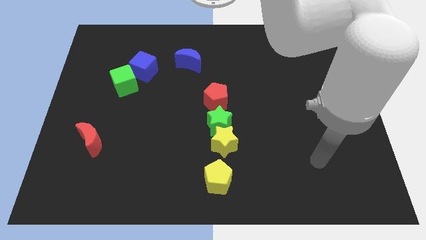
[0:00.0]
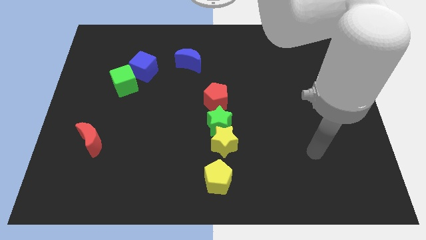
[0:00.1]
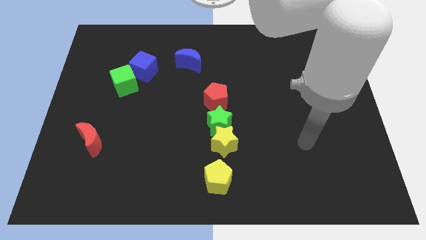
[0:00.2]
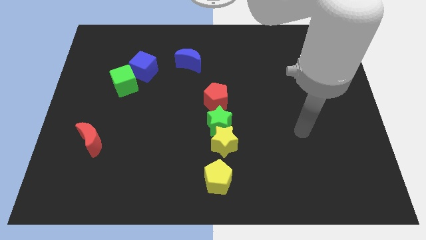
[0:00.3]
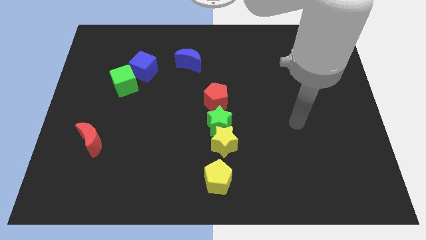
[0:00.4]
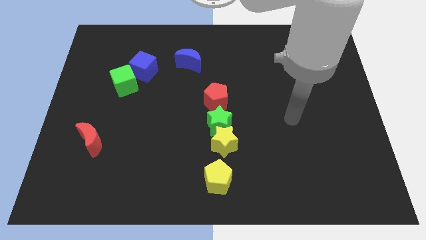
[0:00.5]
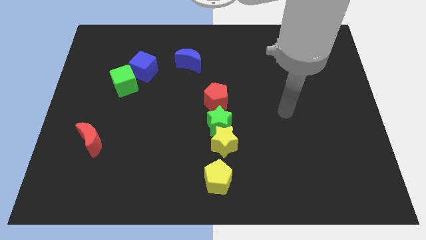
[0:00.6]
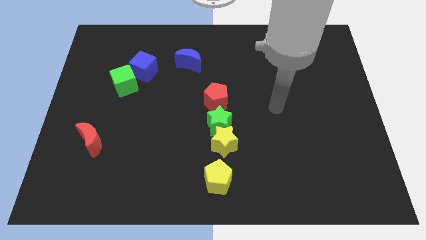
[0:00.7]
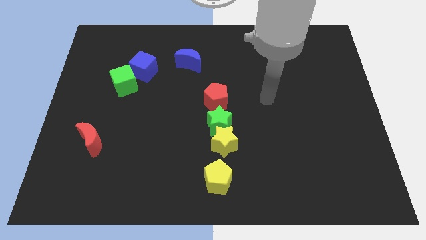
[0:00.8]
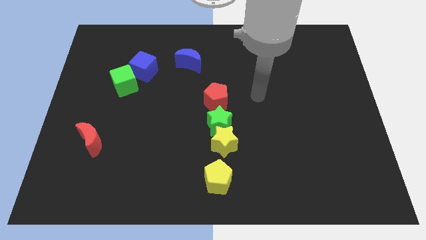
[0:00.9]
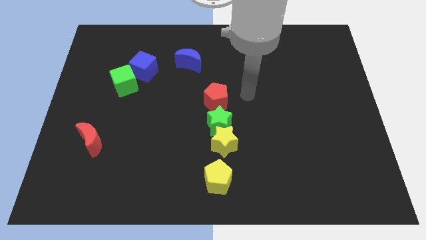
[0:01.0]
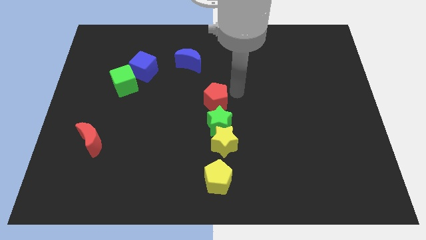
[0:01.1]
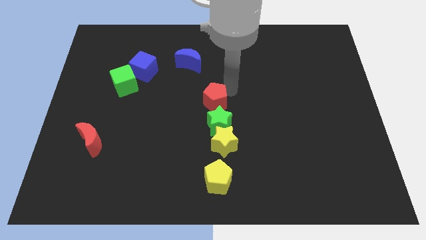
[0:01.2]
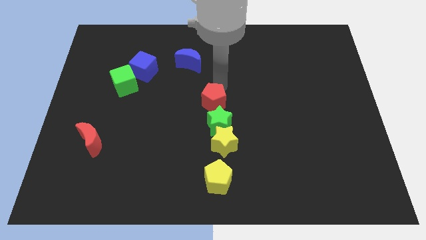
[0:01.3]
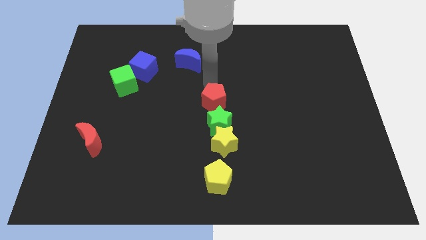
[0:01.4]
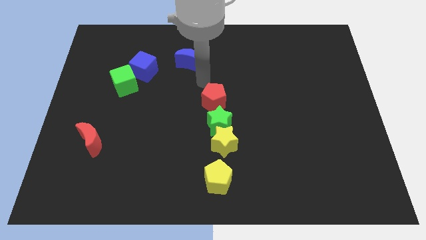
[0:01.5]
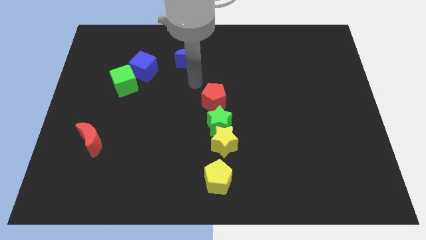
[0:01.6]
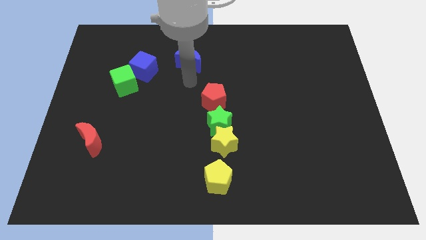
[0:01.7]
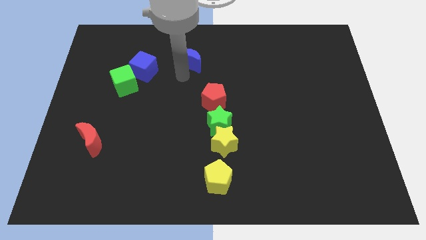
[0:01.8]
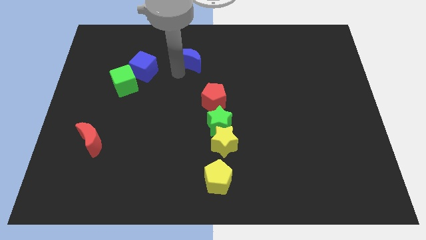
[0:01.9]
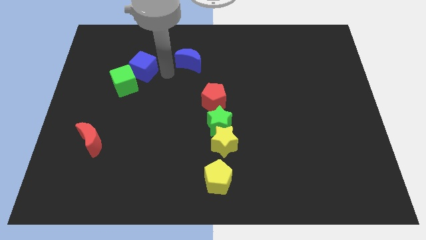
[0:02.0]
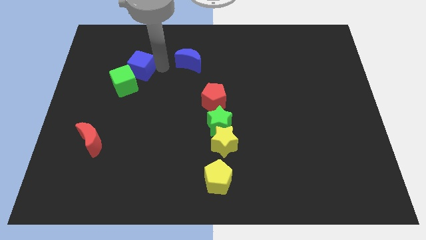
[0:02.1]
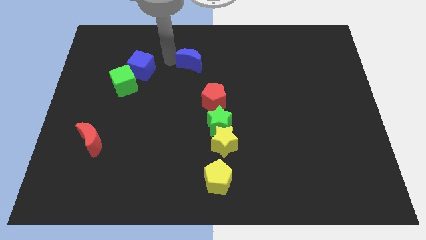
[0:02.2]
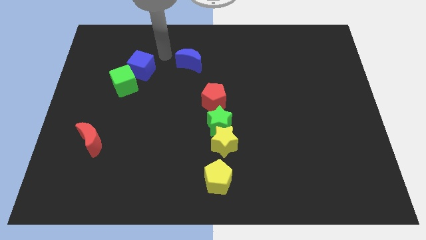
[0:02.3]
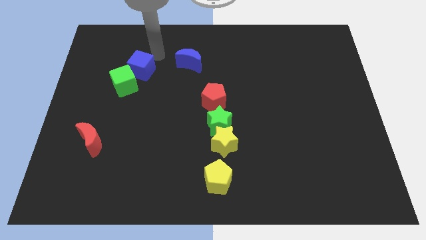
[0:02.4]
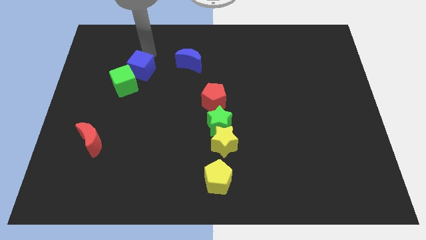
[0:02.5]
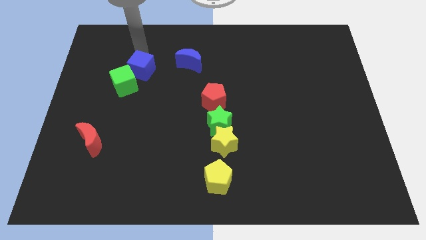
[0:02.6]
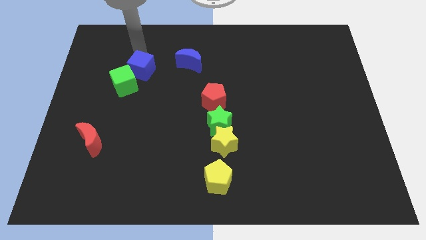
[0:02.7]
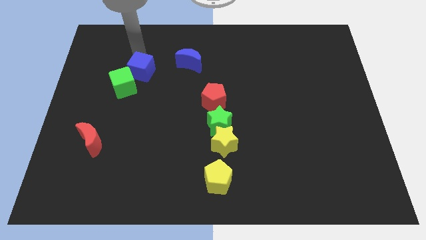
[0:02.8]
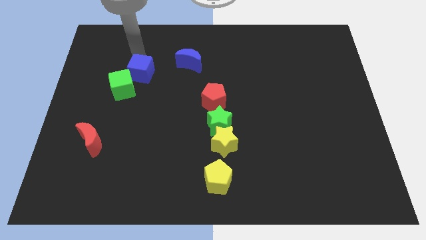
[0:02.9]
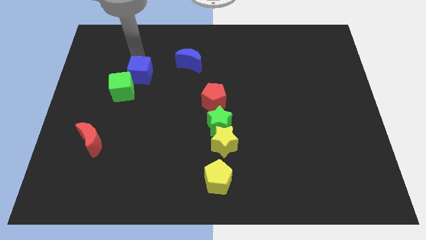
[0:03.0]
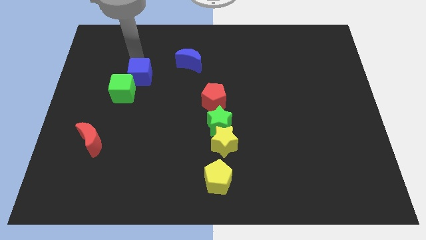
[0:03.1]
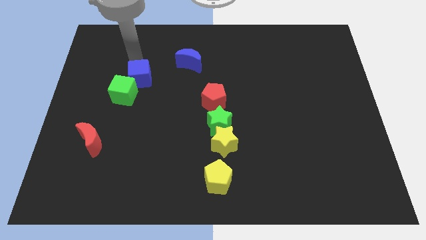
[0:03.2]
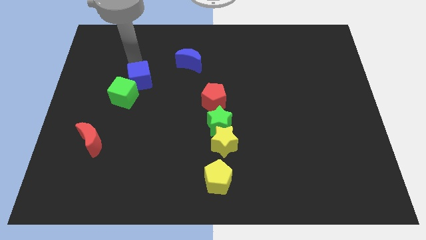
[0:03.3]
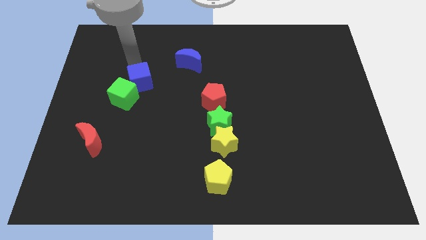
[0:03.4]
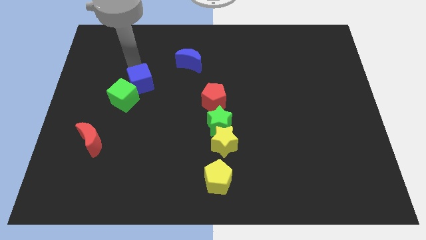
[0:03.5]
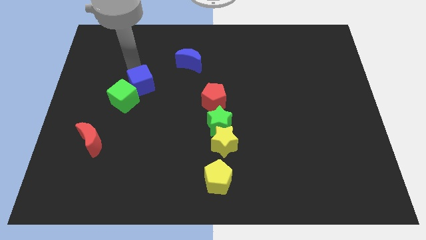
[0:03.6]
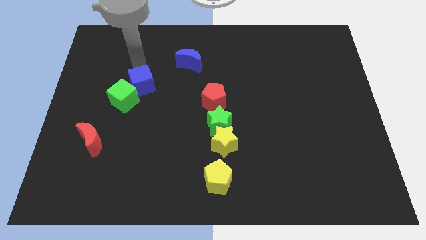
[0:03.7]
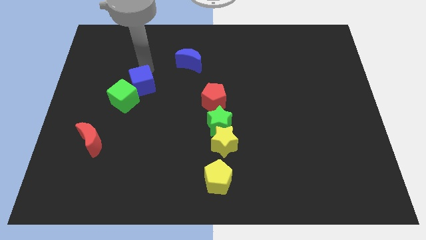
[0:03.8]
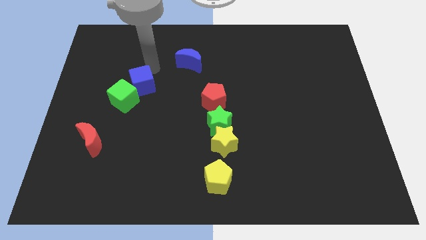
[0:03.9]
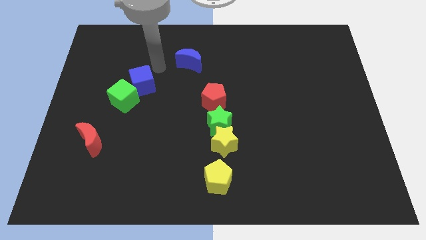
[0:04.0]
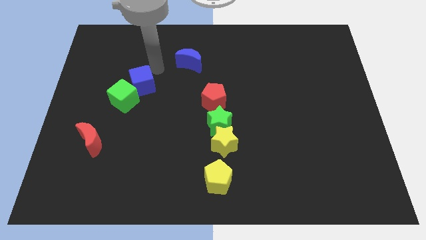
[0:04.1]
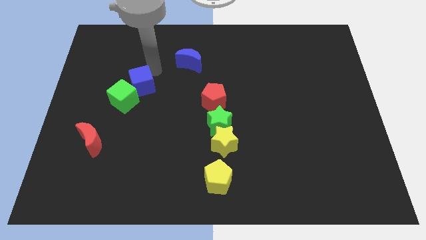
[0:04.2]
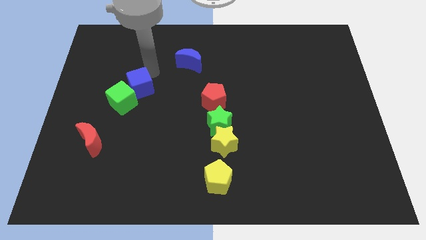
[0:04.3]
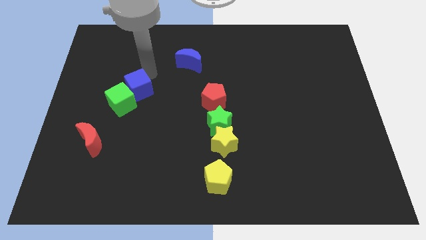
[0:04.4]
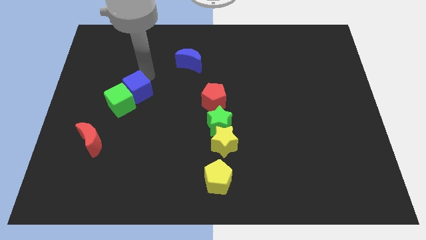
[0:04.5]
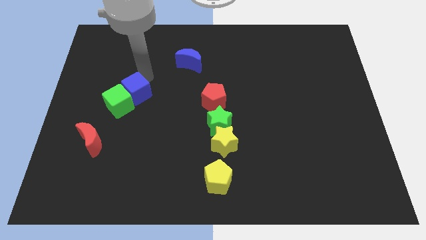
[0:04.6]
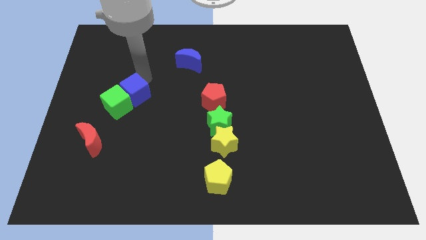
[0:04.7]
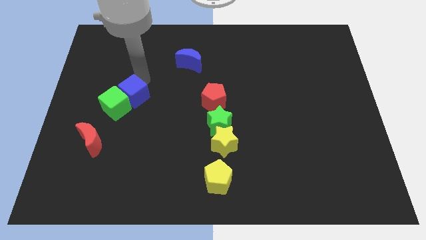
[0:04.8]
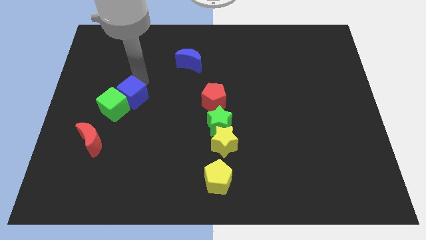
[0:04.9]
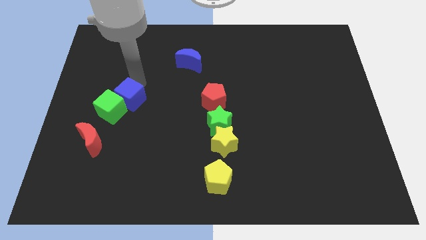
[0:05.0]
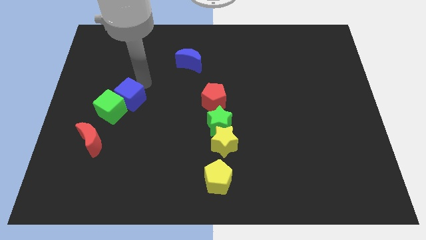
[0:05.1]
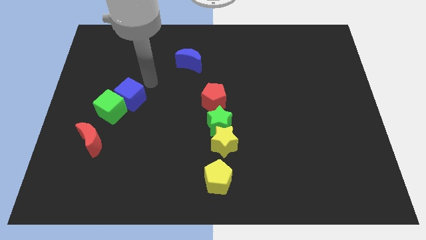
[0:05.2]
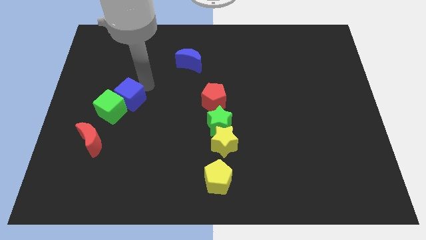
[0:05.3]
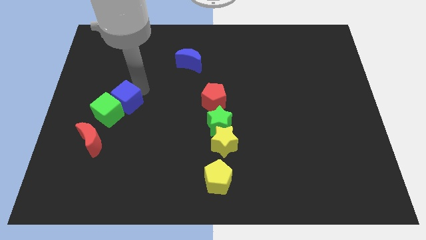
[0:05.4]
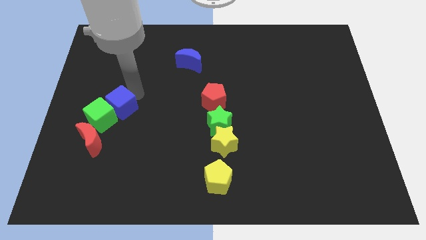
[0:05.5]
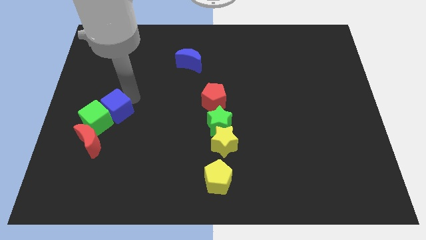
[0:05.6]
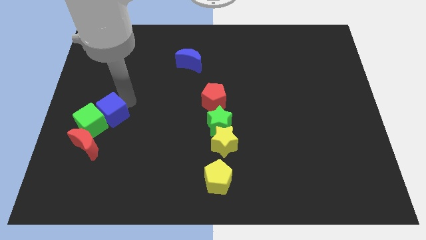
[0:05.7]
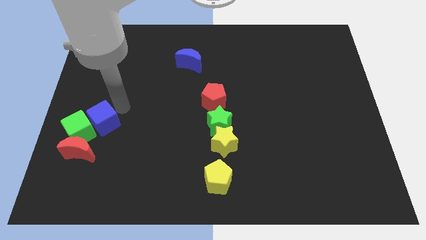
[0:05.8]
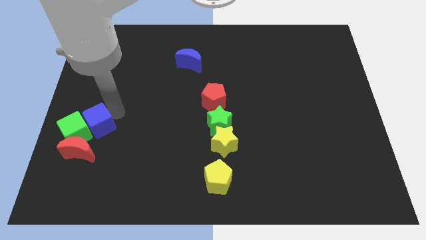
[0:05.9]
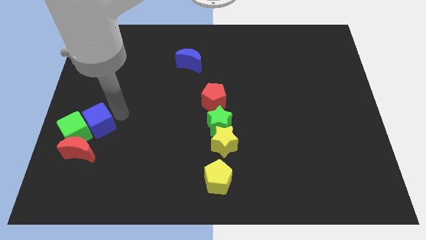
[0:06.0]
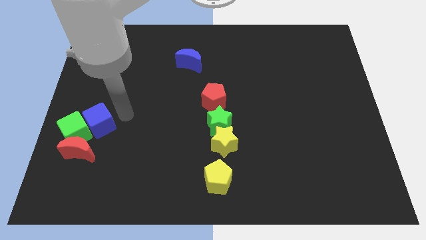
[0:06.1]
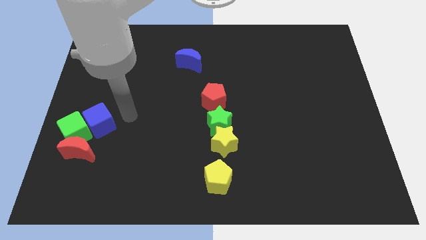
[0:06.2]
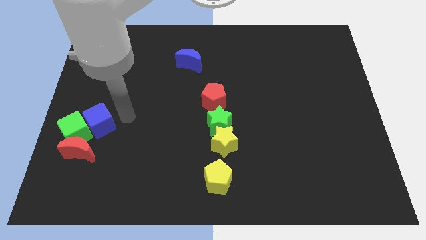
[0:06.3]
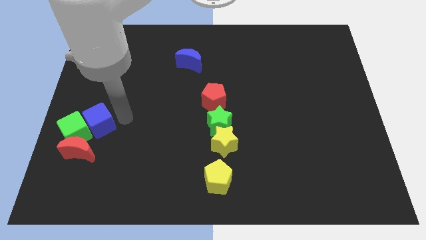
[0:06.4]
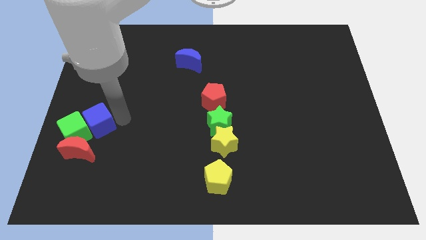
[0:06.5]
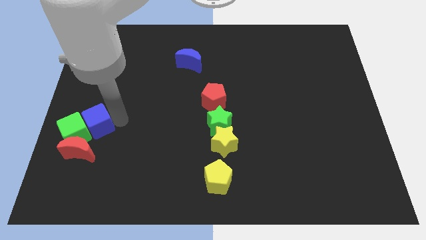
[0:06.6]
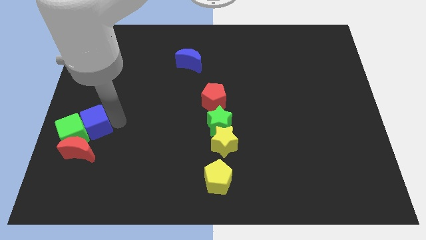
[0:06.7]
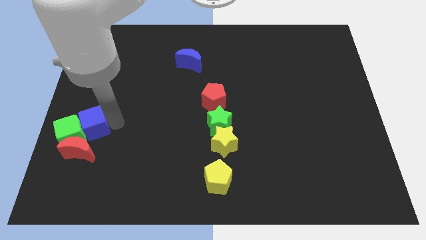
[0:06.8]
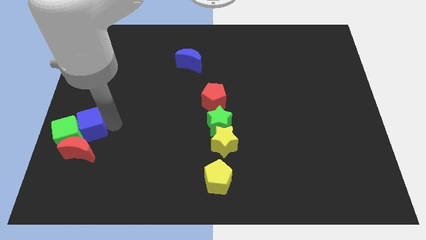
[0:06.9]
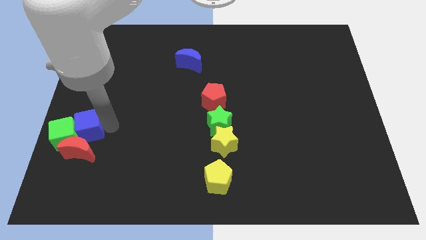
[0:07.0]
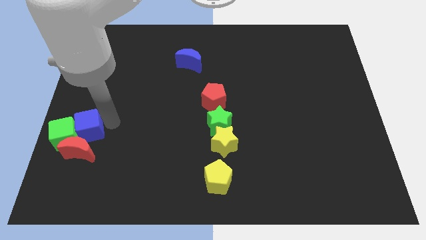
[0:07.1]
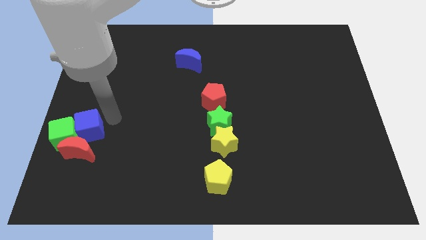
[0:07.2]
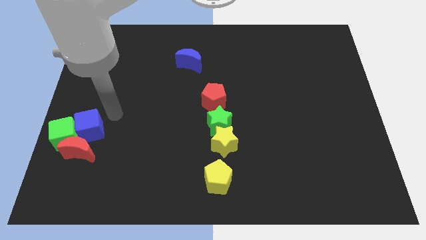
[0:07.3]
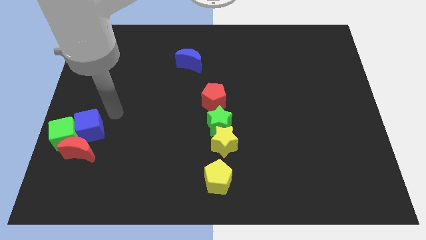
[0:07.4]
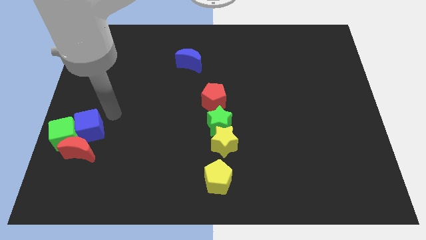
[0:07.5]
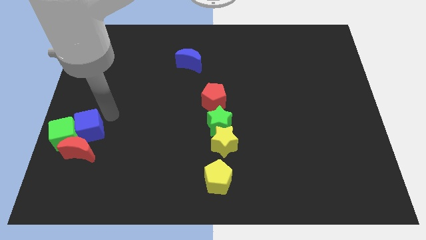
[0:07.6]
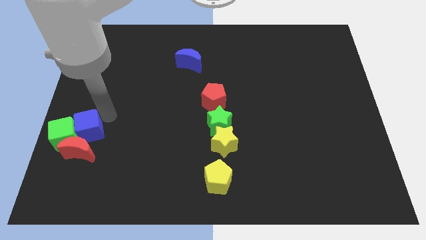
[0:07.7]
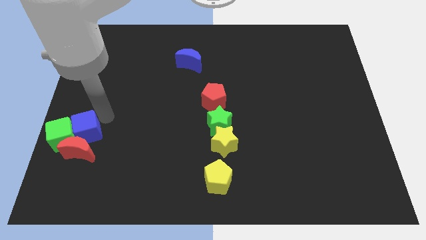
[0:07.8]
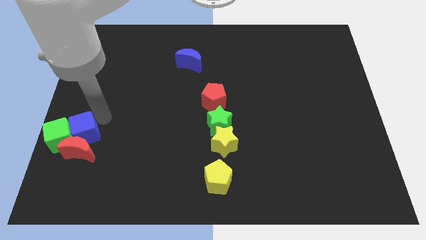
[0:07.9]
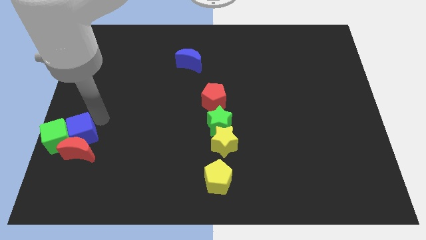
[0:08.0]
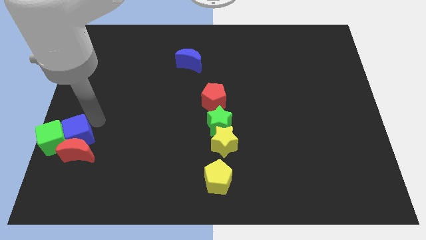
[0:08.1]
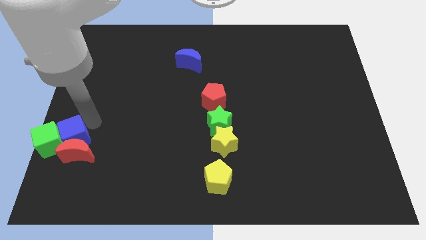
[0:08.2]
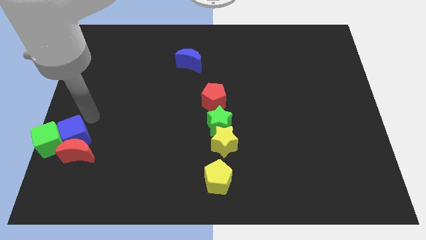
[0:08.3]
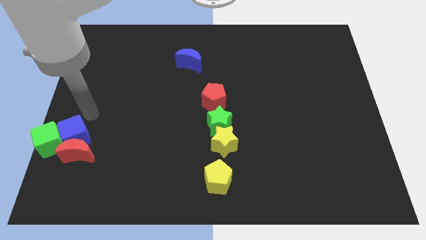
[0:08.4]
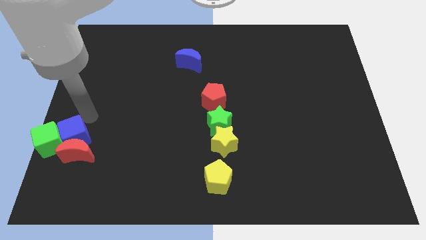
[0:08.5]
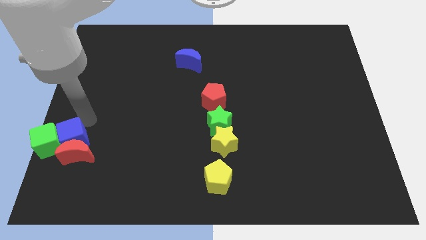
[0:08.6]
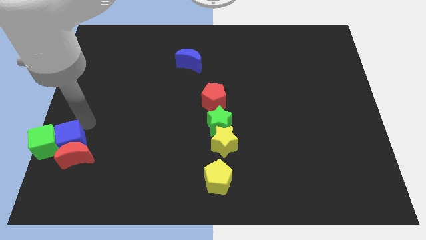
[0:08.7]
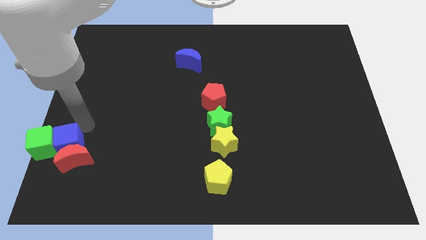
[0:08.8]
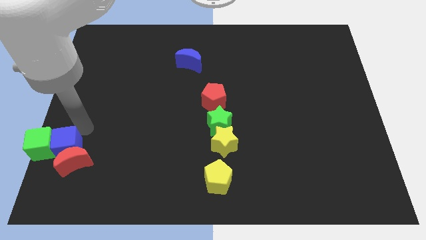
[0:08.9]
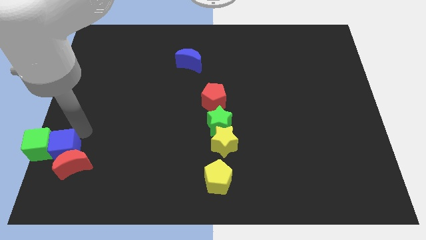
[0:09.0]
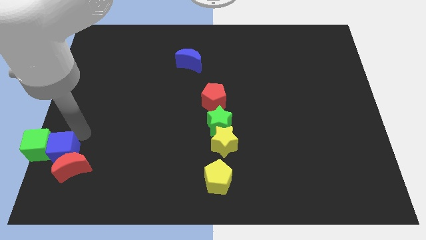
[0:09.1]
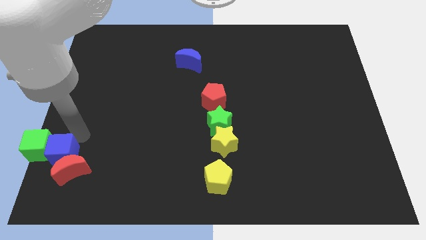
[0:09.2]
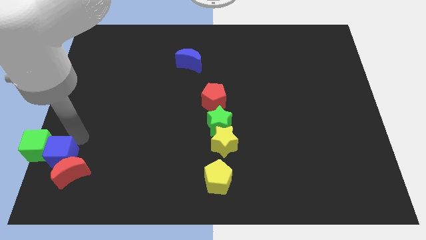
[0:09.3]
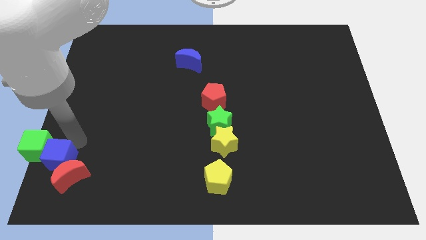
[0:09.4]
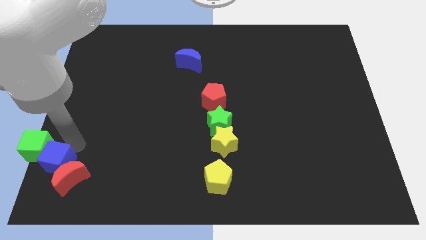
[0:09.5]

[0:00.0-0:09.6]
move the blue cube to the lower left corner
